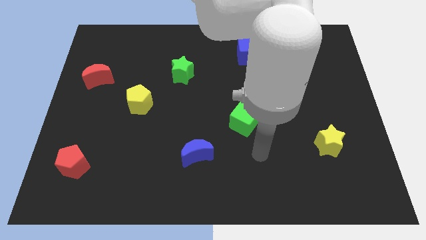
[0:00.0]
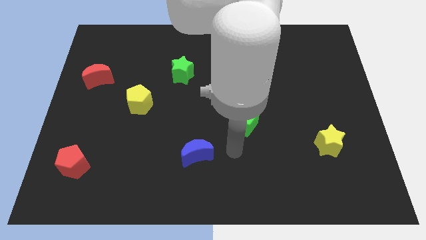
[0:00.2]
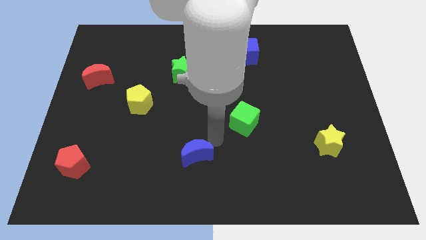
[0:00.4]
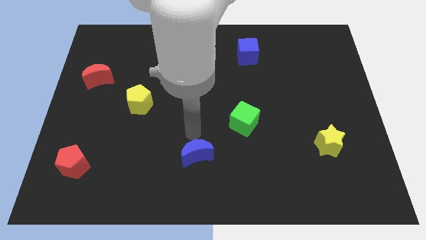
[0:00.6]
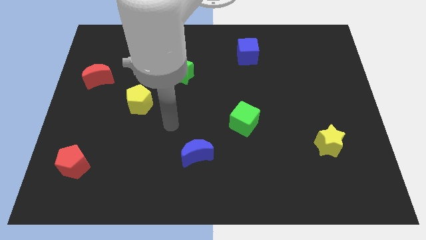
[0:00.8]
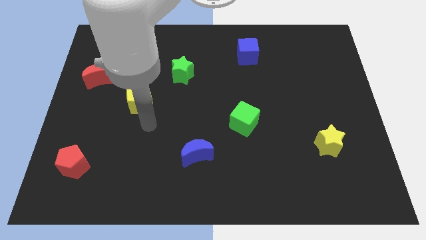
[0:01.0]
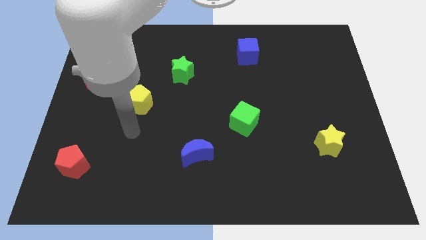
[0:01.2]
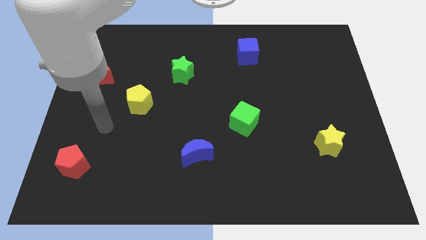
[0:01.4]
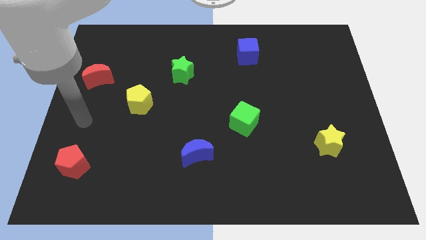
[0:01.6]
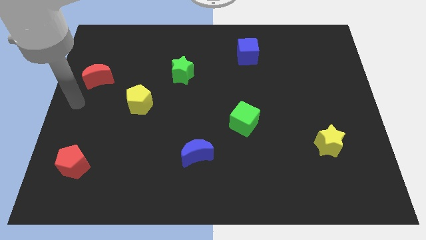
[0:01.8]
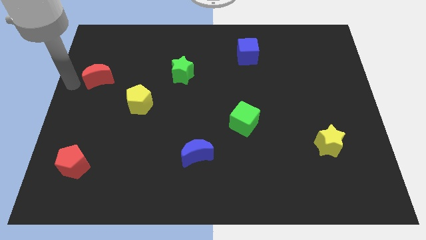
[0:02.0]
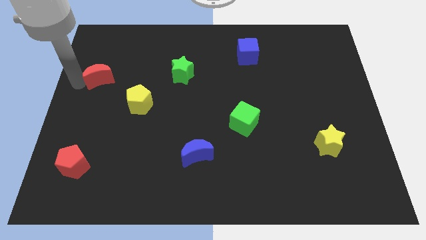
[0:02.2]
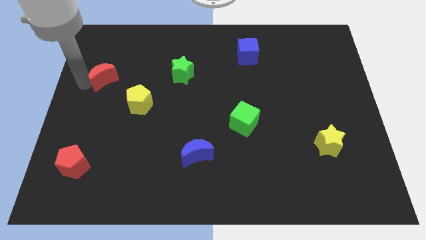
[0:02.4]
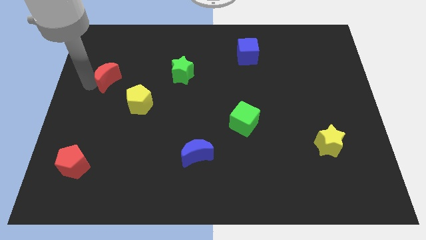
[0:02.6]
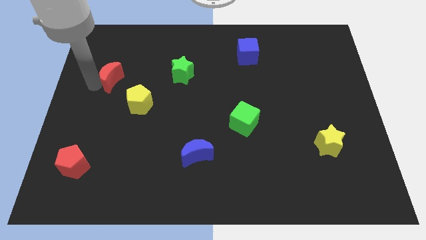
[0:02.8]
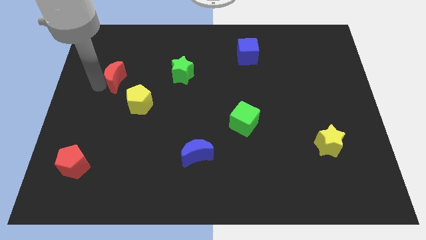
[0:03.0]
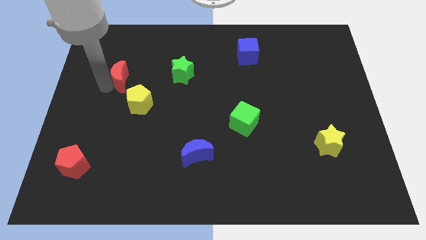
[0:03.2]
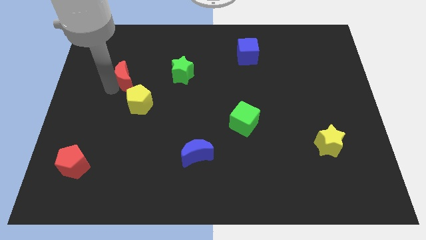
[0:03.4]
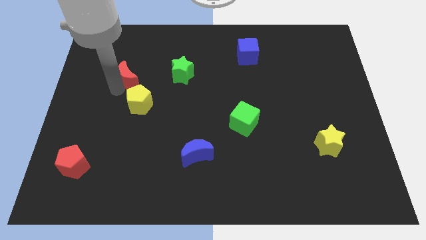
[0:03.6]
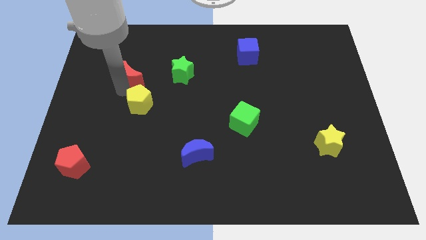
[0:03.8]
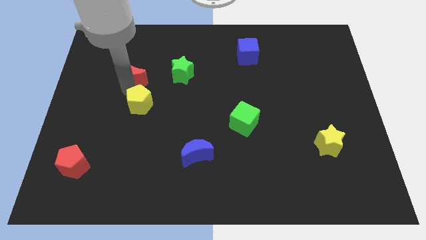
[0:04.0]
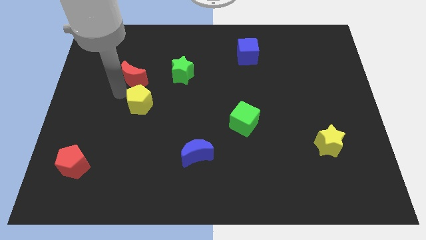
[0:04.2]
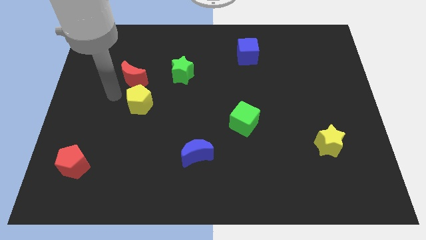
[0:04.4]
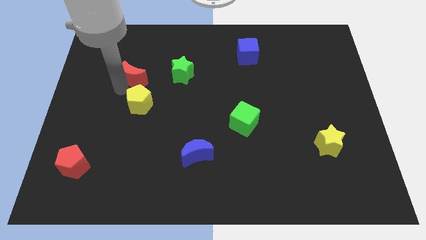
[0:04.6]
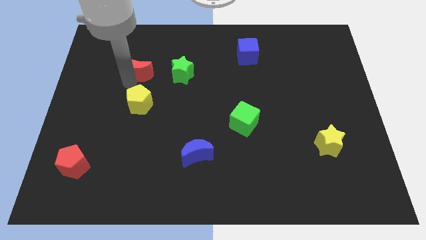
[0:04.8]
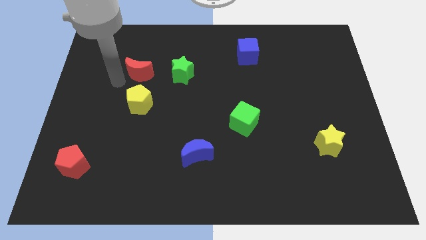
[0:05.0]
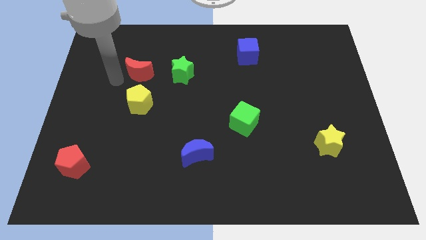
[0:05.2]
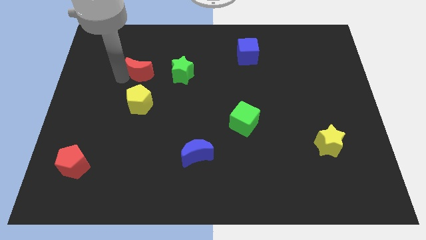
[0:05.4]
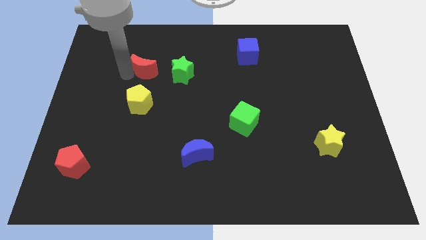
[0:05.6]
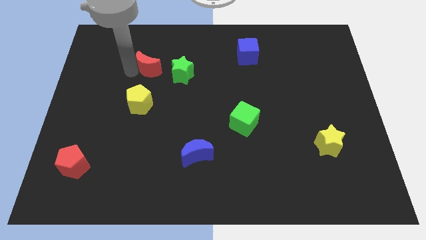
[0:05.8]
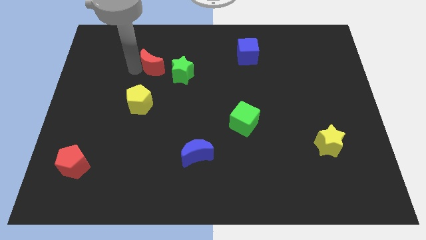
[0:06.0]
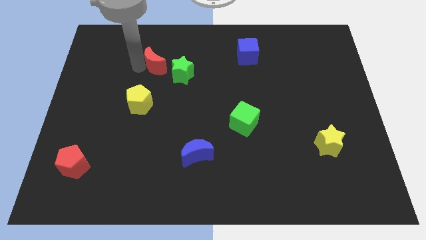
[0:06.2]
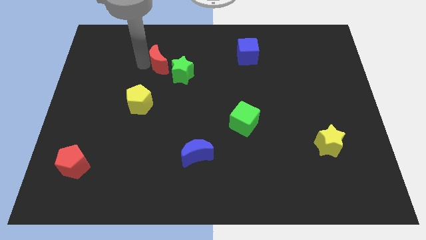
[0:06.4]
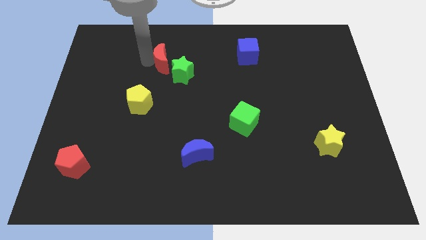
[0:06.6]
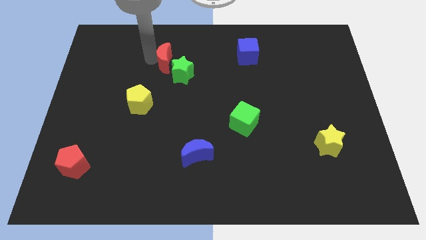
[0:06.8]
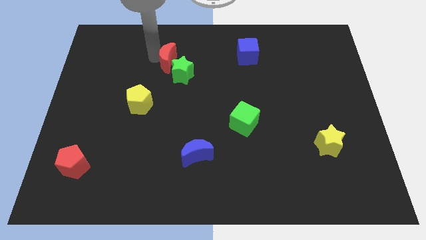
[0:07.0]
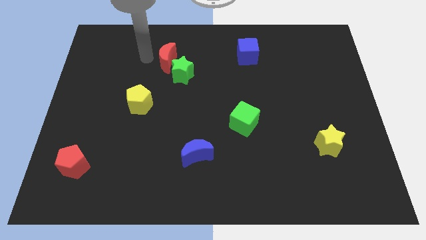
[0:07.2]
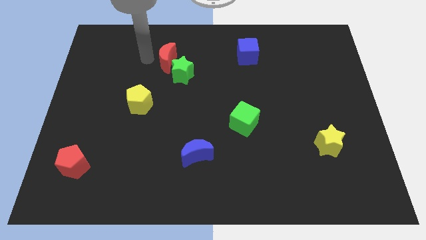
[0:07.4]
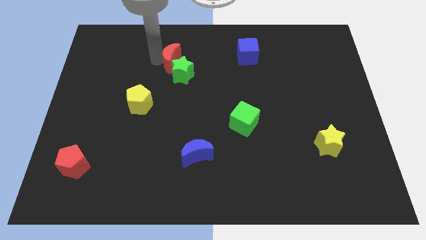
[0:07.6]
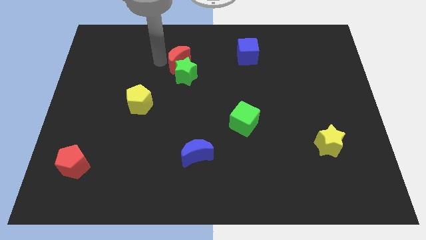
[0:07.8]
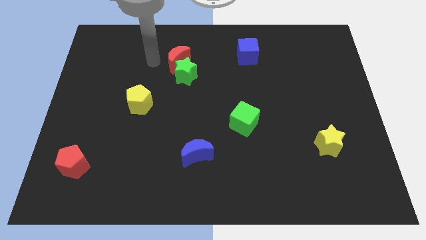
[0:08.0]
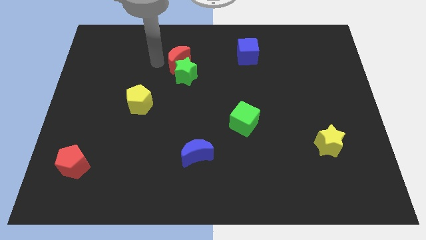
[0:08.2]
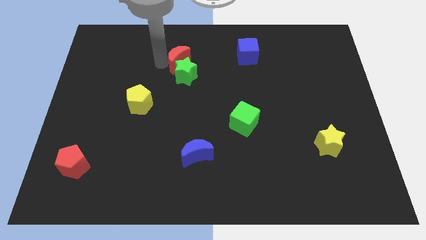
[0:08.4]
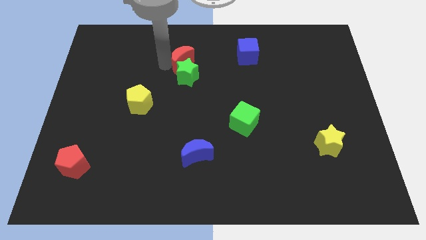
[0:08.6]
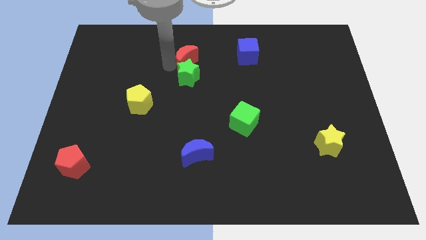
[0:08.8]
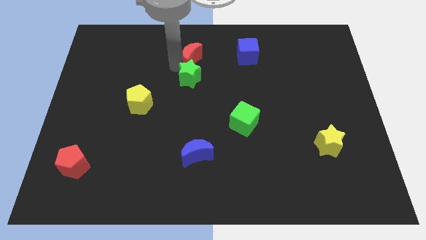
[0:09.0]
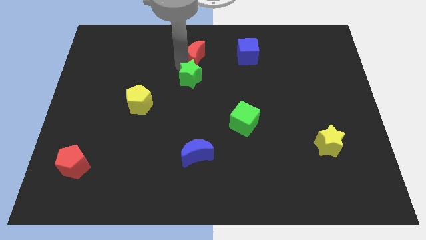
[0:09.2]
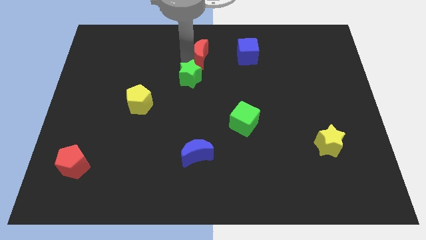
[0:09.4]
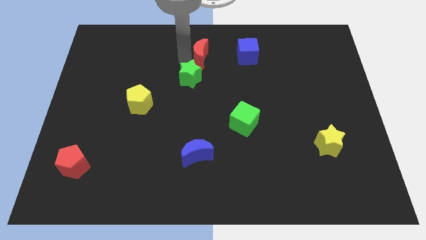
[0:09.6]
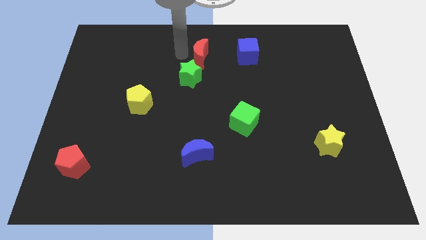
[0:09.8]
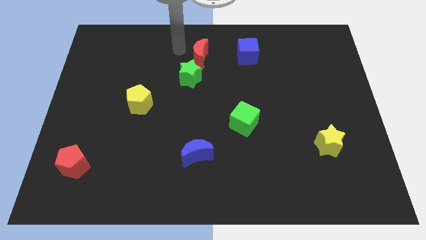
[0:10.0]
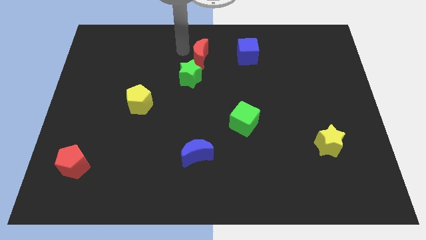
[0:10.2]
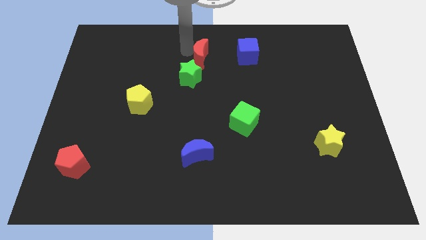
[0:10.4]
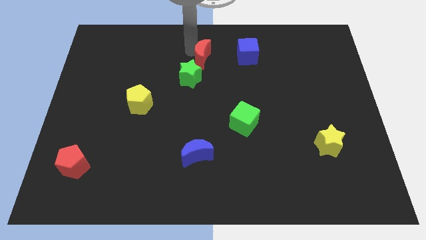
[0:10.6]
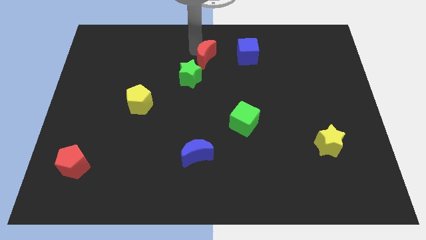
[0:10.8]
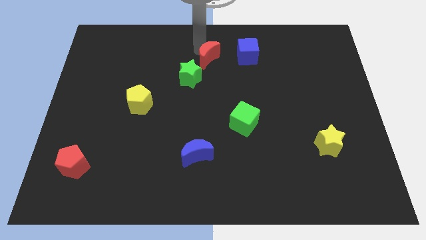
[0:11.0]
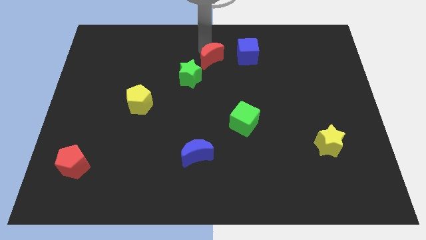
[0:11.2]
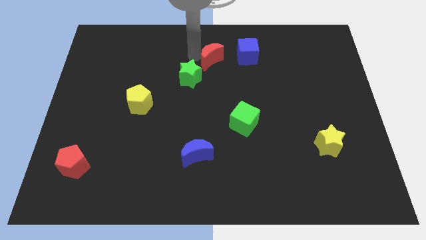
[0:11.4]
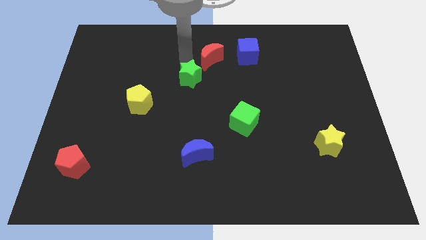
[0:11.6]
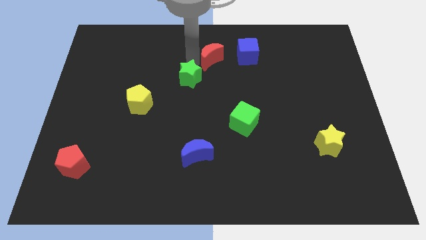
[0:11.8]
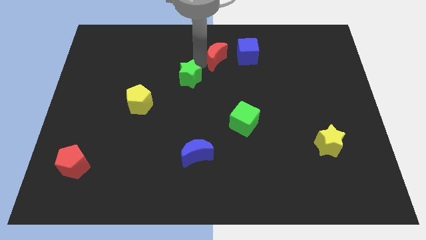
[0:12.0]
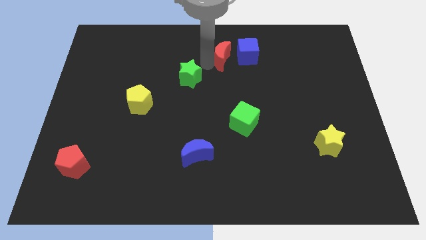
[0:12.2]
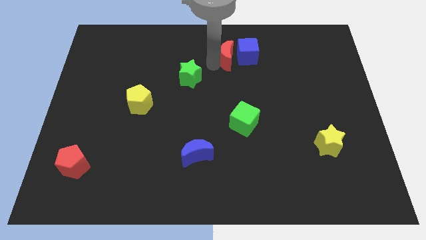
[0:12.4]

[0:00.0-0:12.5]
put the red moon close to the blue cube

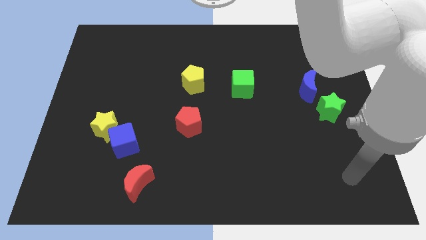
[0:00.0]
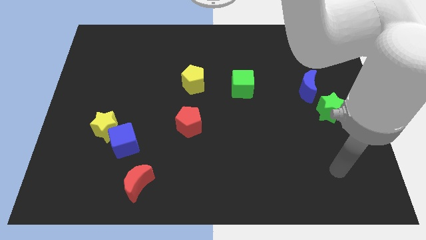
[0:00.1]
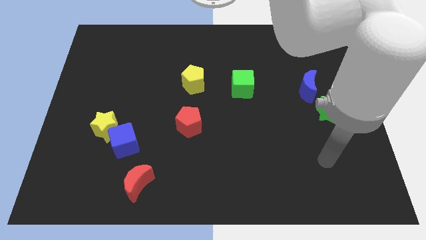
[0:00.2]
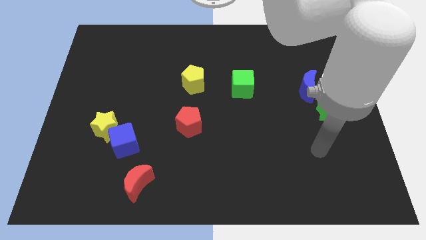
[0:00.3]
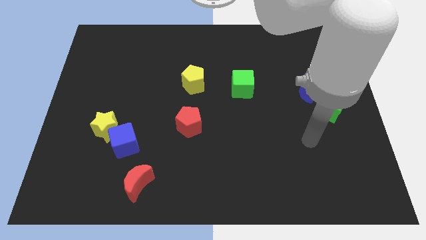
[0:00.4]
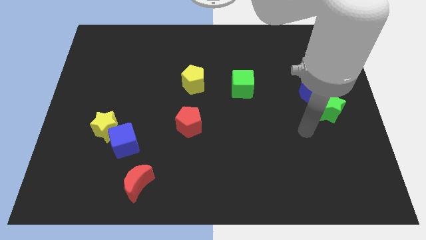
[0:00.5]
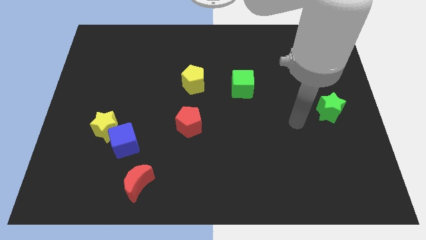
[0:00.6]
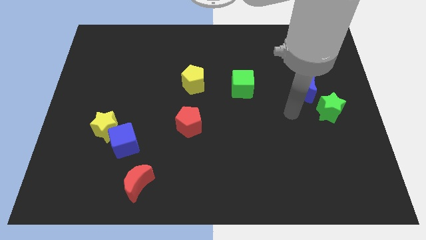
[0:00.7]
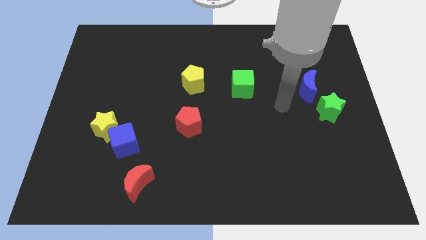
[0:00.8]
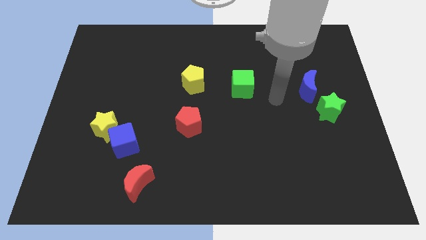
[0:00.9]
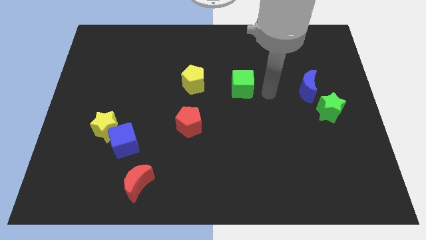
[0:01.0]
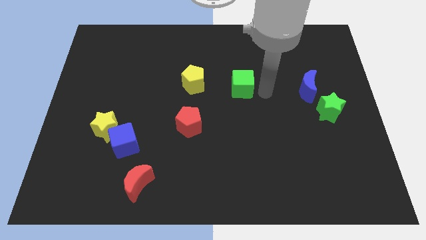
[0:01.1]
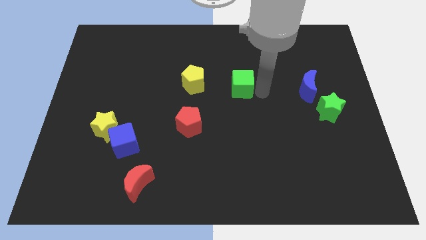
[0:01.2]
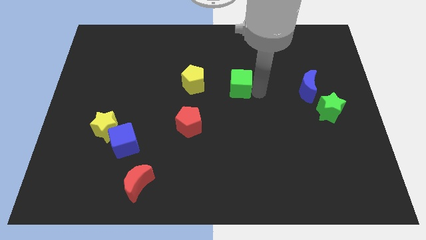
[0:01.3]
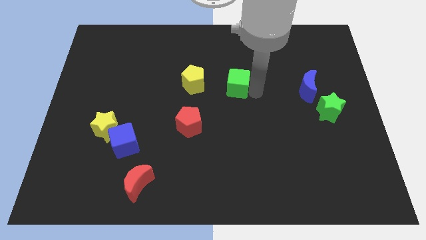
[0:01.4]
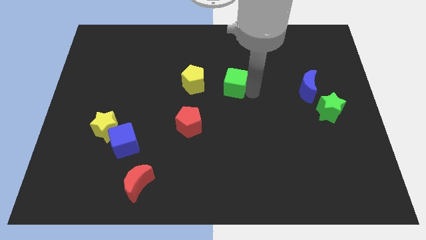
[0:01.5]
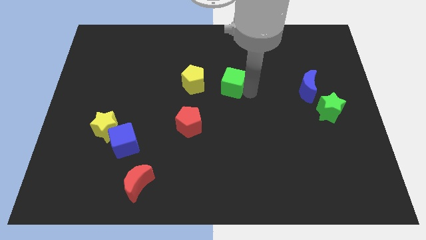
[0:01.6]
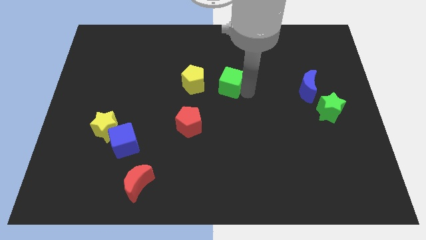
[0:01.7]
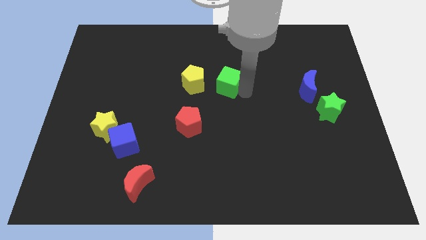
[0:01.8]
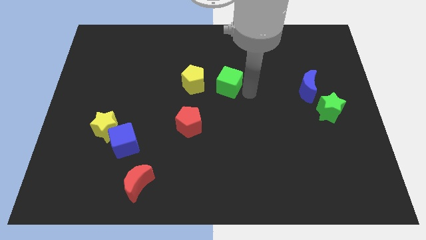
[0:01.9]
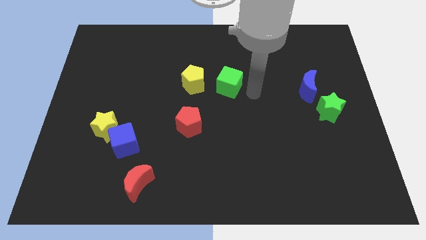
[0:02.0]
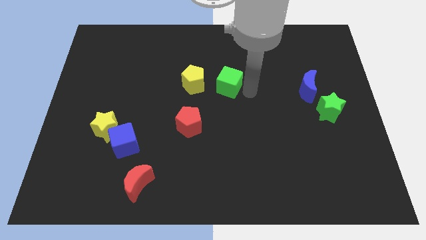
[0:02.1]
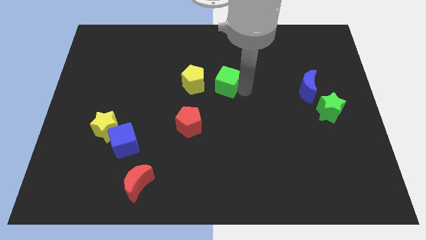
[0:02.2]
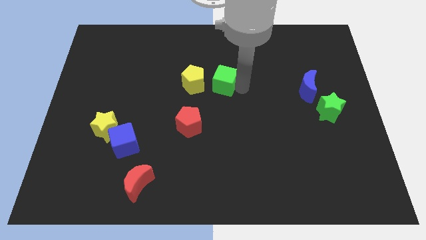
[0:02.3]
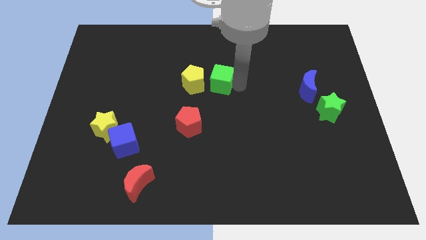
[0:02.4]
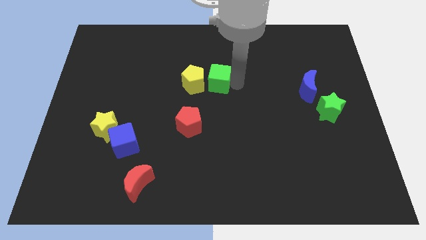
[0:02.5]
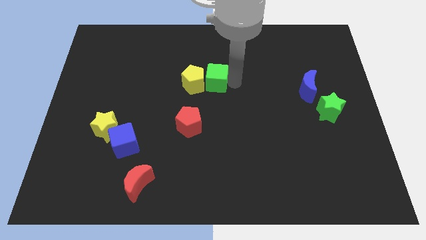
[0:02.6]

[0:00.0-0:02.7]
slide the green cube to the yellow pentagon
